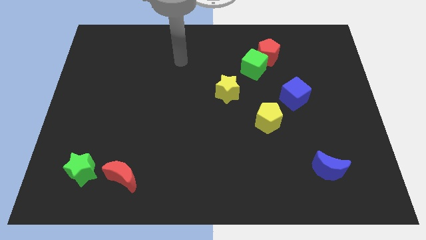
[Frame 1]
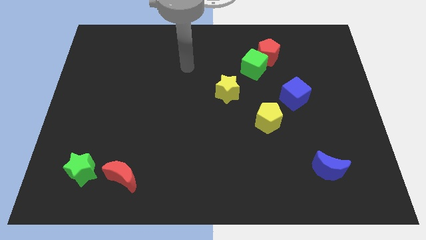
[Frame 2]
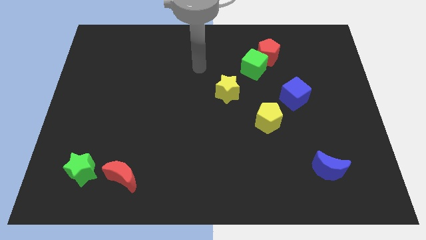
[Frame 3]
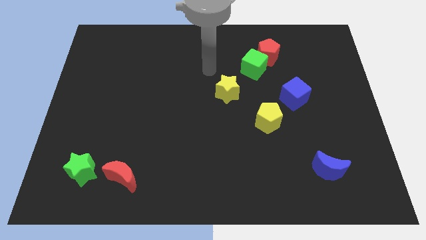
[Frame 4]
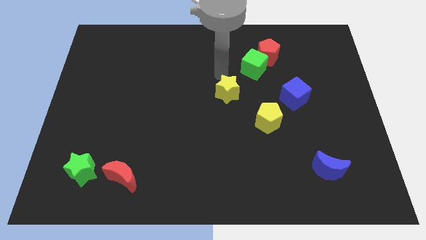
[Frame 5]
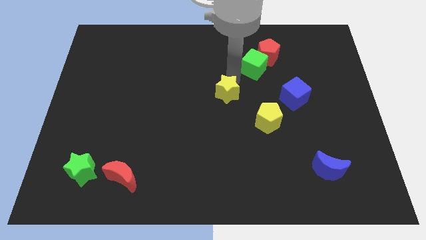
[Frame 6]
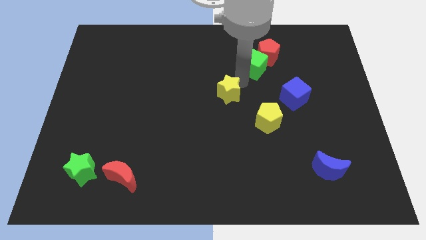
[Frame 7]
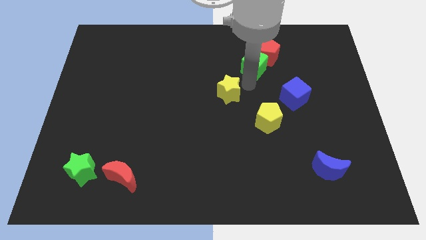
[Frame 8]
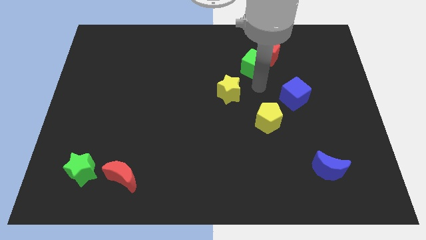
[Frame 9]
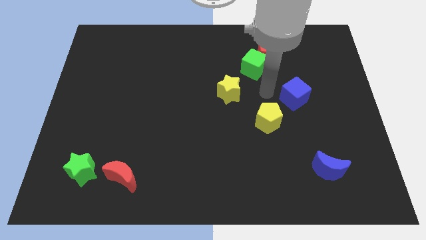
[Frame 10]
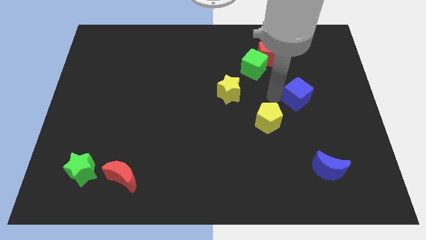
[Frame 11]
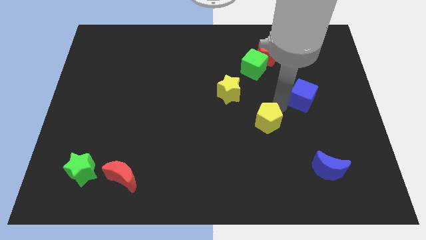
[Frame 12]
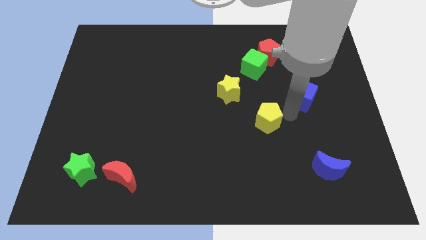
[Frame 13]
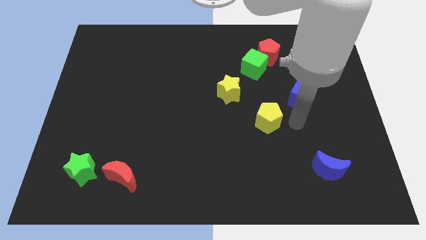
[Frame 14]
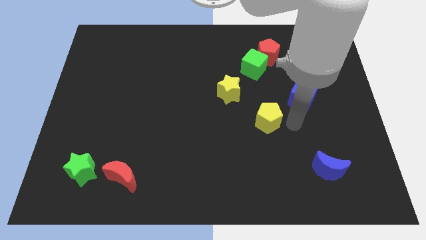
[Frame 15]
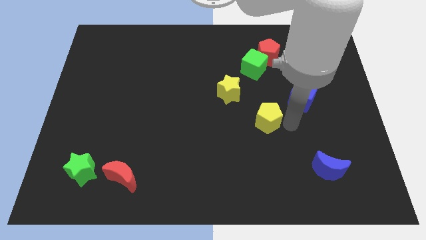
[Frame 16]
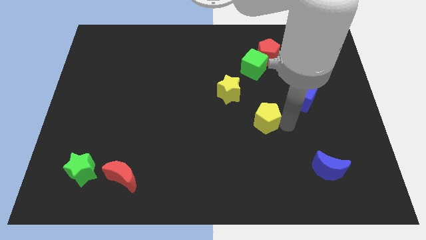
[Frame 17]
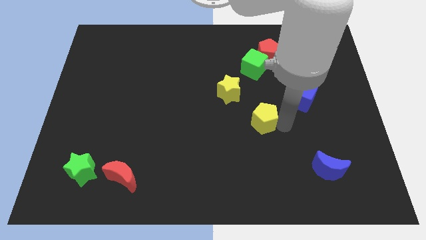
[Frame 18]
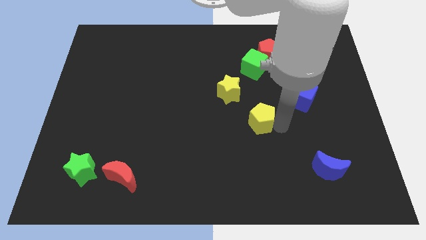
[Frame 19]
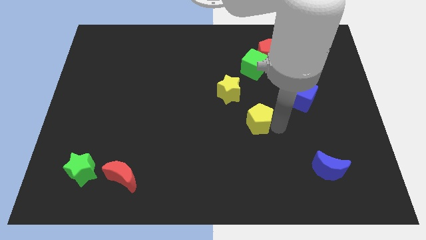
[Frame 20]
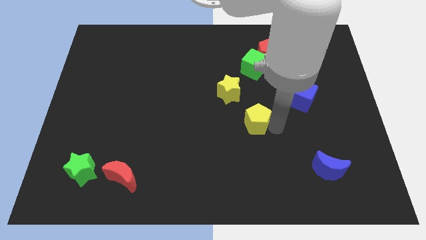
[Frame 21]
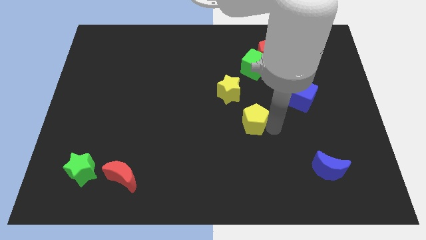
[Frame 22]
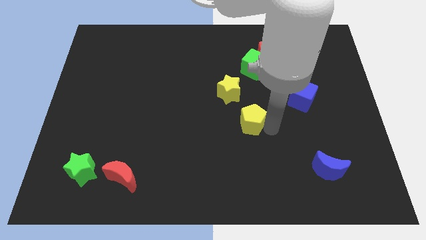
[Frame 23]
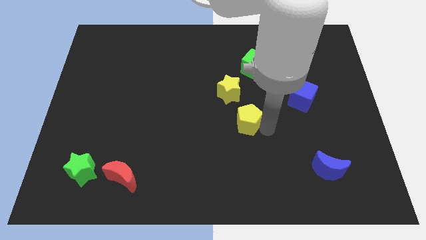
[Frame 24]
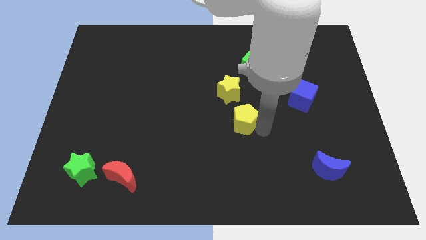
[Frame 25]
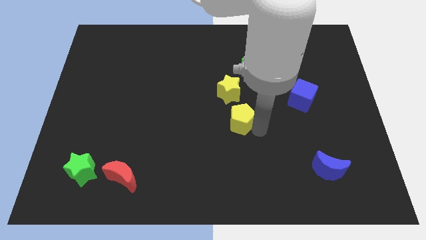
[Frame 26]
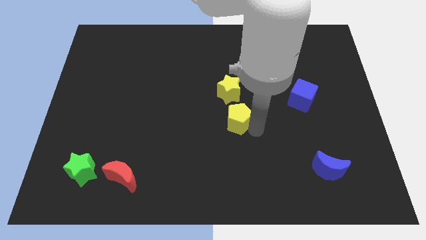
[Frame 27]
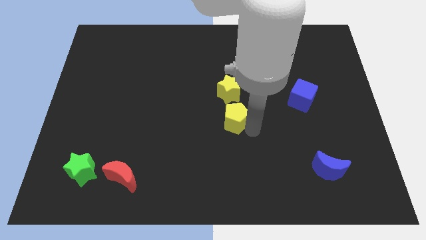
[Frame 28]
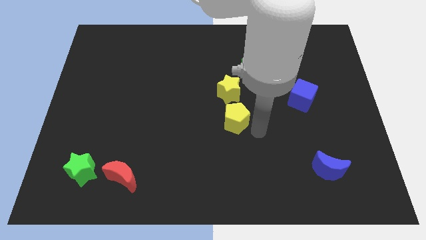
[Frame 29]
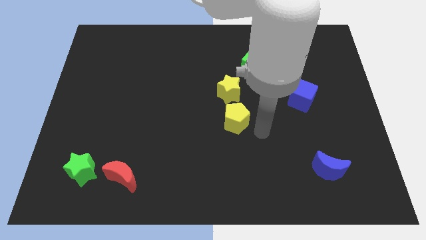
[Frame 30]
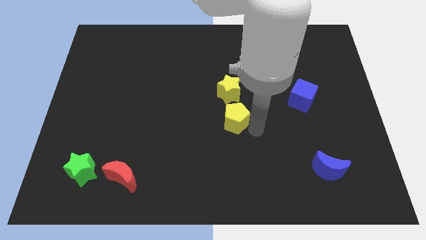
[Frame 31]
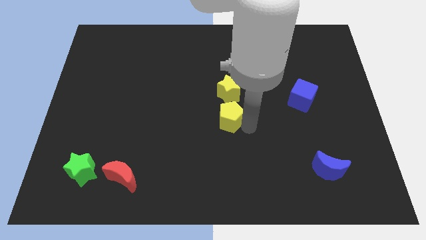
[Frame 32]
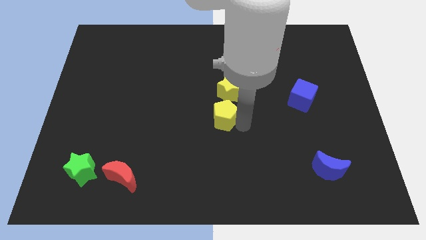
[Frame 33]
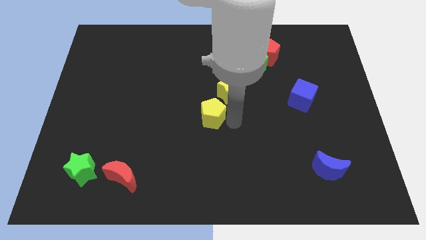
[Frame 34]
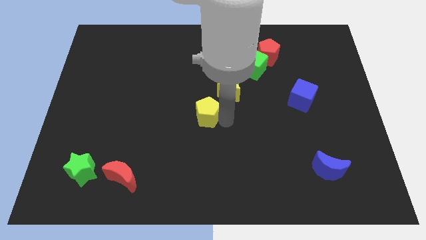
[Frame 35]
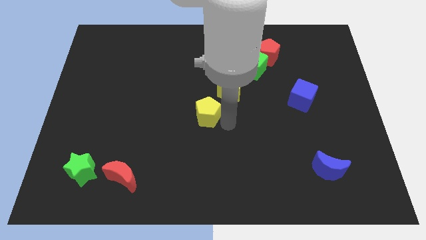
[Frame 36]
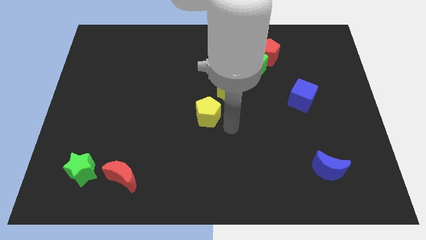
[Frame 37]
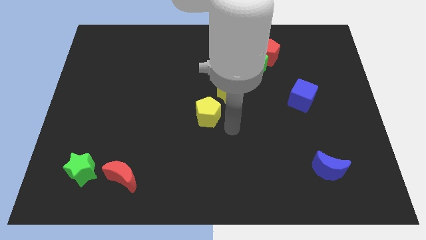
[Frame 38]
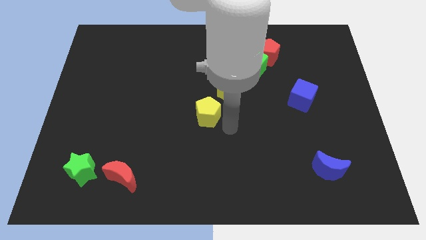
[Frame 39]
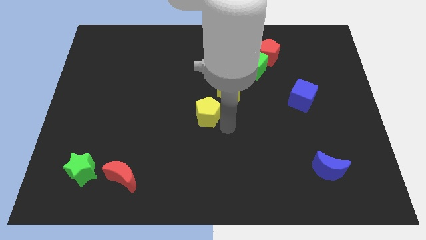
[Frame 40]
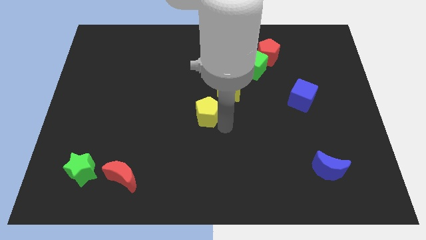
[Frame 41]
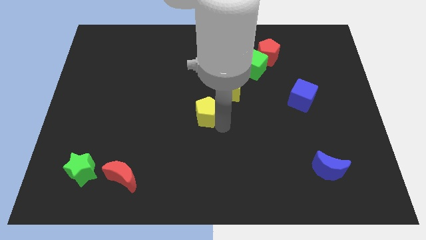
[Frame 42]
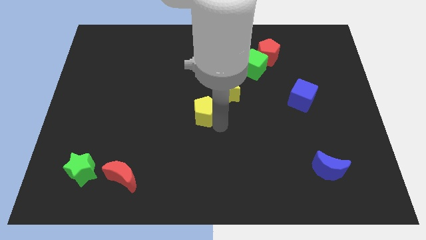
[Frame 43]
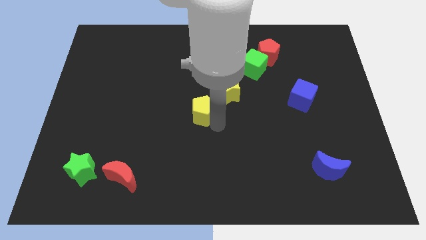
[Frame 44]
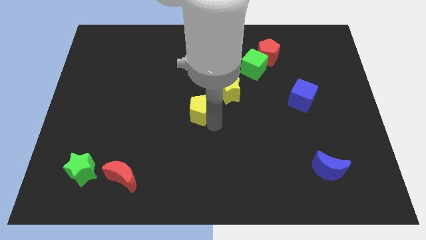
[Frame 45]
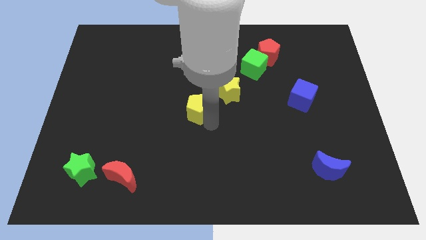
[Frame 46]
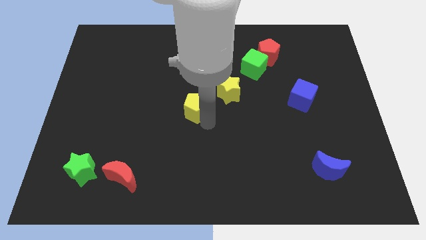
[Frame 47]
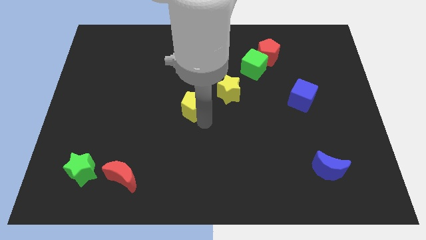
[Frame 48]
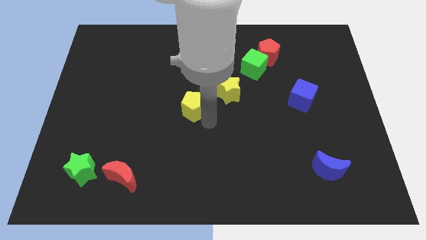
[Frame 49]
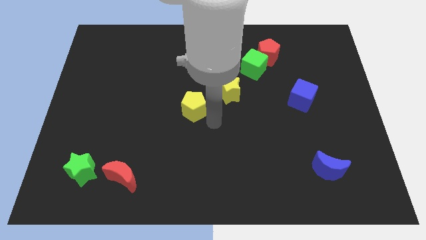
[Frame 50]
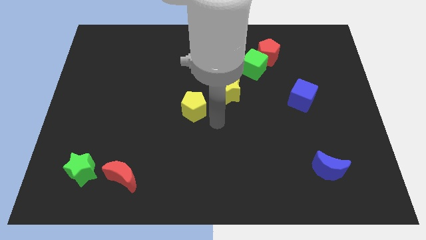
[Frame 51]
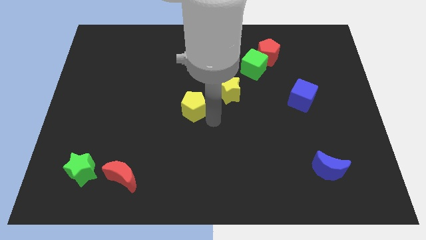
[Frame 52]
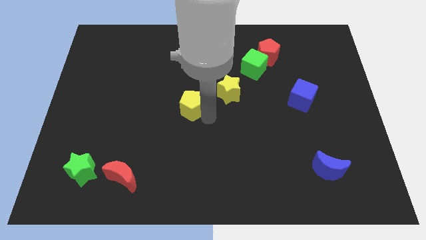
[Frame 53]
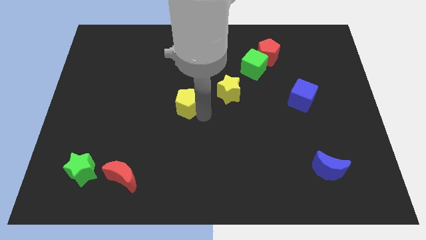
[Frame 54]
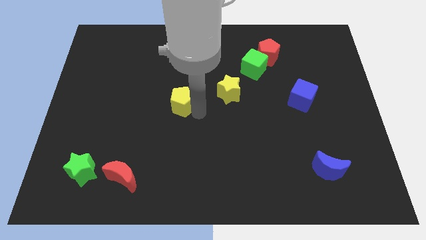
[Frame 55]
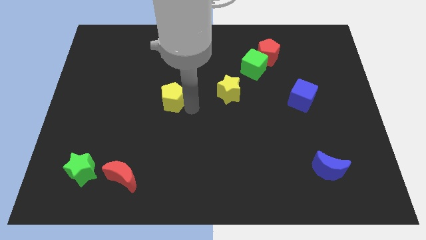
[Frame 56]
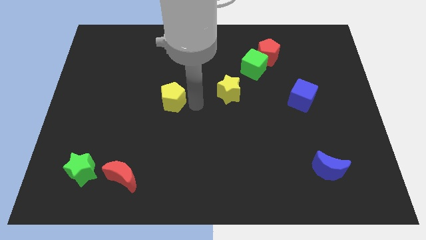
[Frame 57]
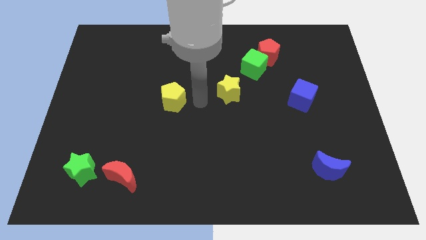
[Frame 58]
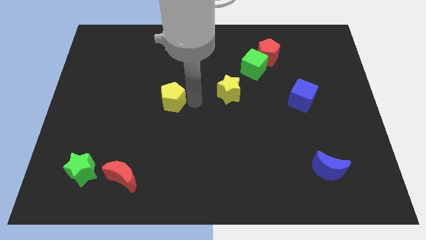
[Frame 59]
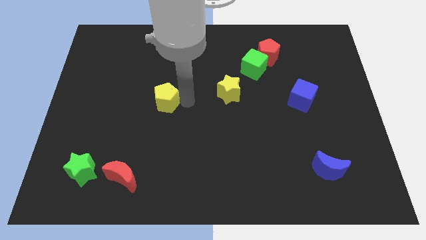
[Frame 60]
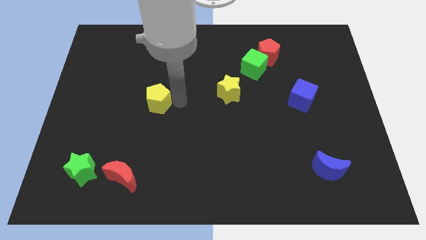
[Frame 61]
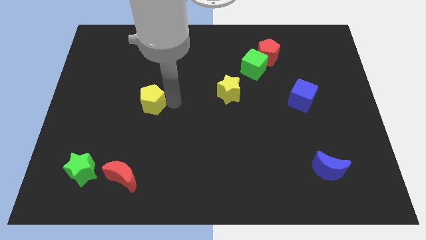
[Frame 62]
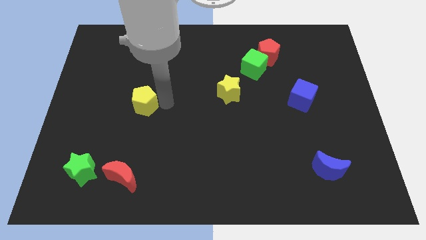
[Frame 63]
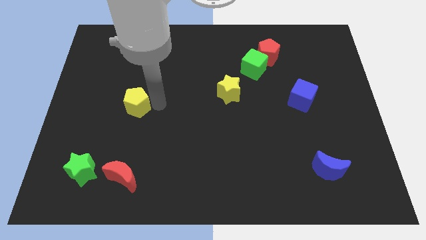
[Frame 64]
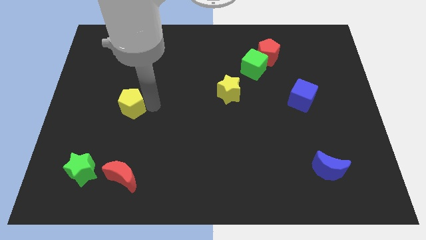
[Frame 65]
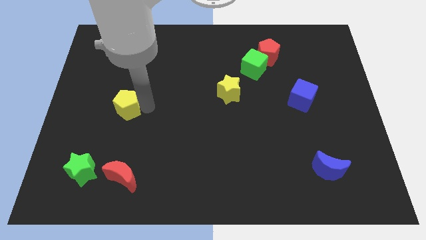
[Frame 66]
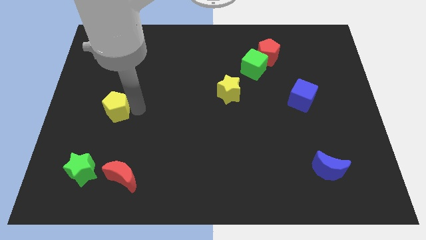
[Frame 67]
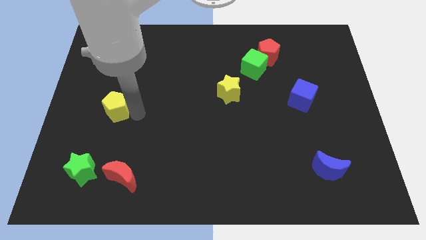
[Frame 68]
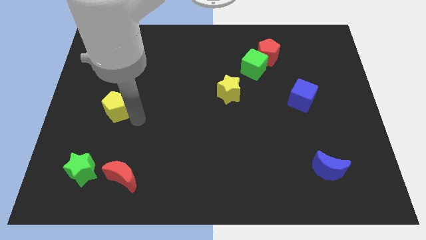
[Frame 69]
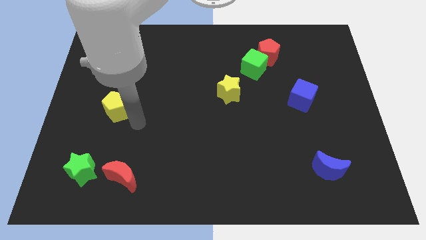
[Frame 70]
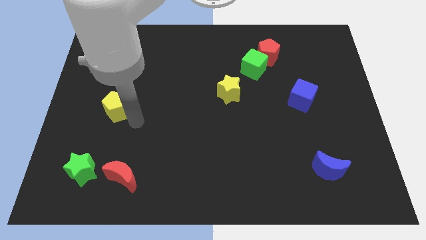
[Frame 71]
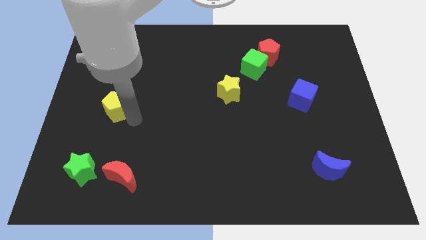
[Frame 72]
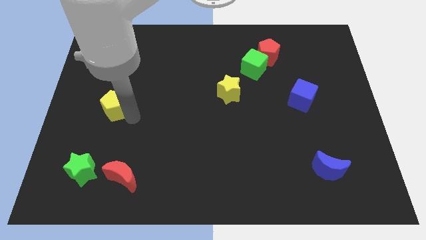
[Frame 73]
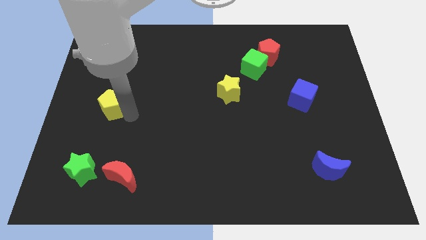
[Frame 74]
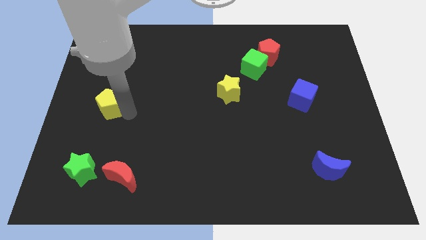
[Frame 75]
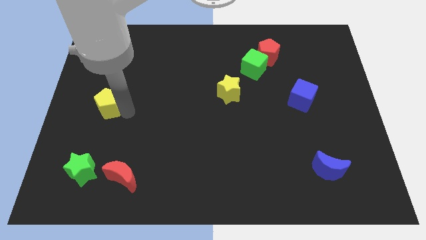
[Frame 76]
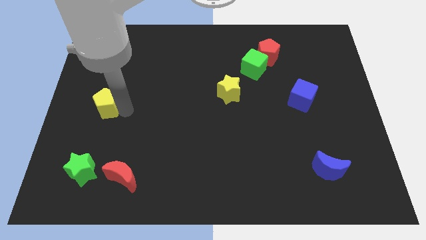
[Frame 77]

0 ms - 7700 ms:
push the yellow pentagon to the center left
